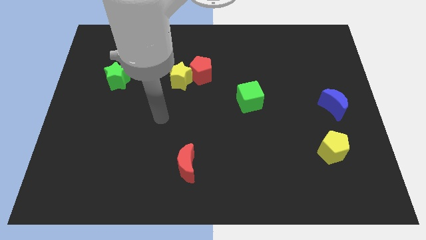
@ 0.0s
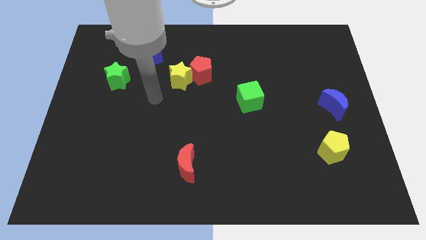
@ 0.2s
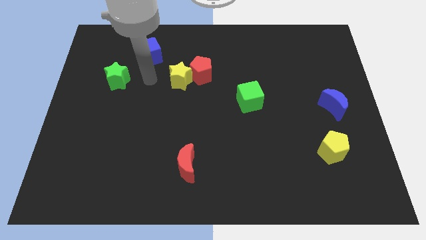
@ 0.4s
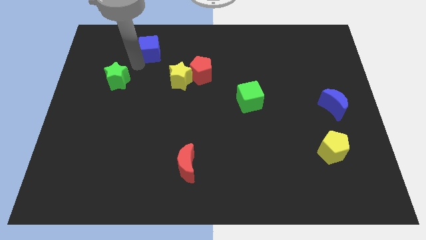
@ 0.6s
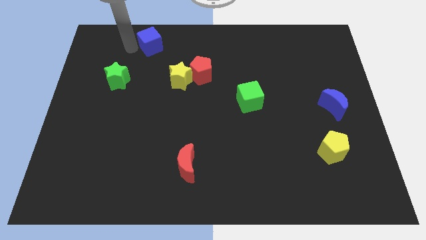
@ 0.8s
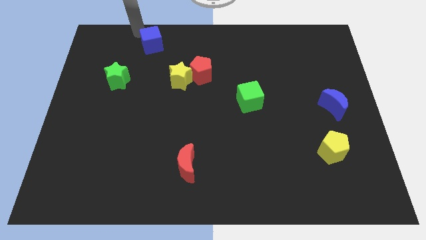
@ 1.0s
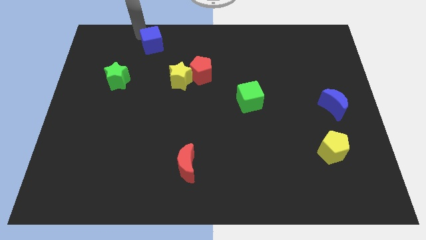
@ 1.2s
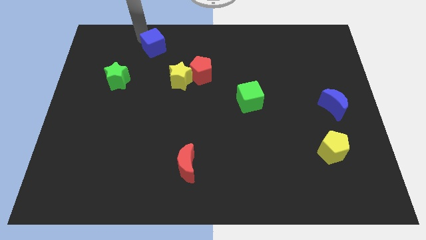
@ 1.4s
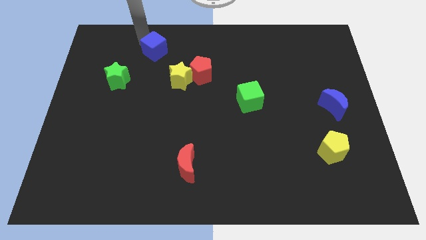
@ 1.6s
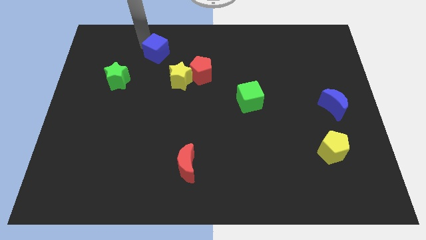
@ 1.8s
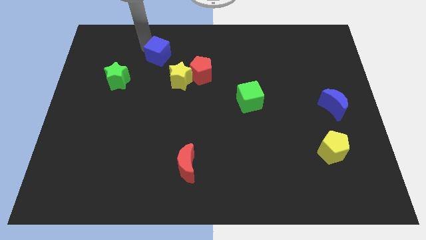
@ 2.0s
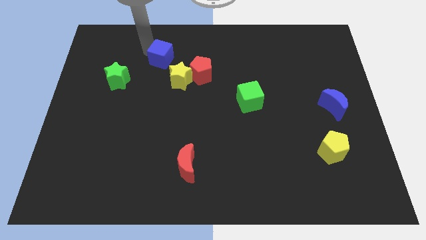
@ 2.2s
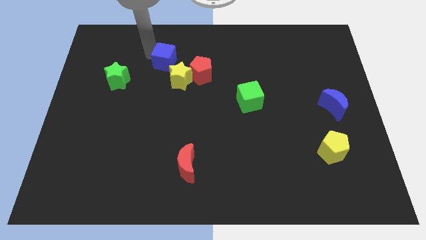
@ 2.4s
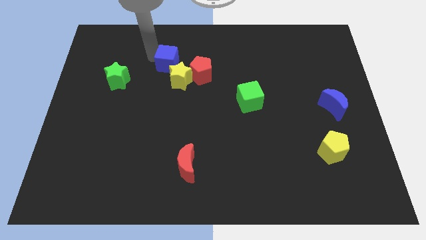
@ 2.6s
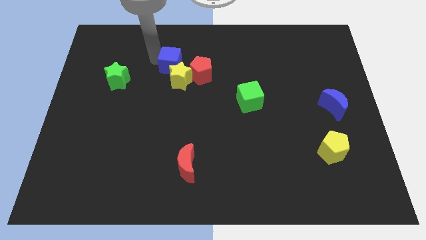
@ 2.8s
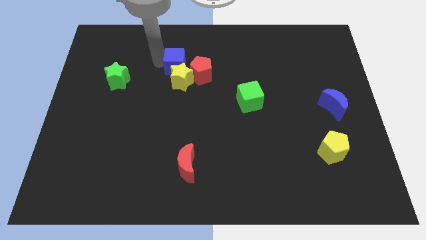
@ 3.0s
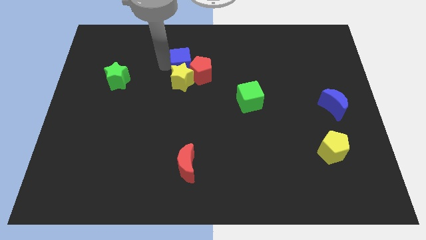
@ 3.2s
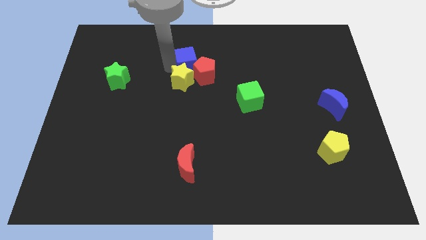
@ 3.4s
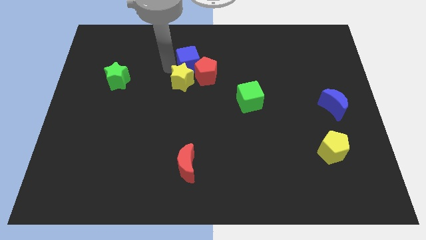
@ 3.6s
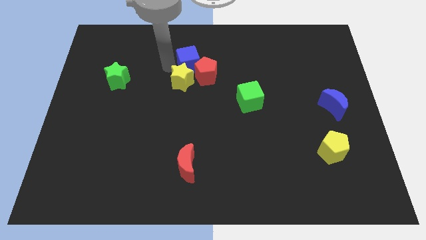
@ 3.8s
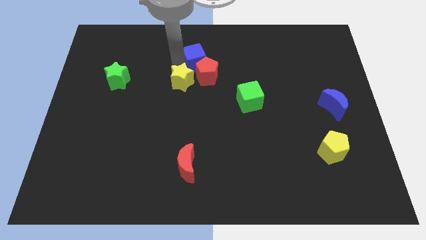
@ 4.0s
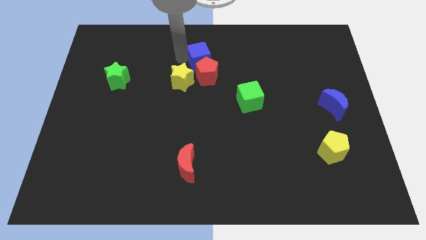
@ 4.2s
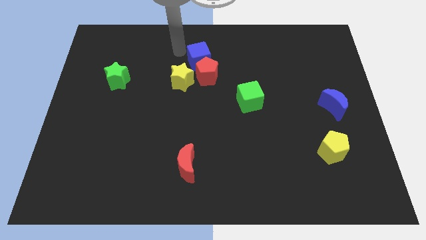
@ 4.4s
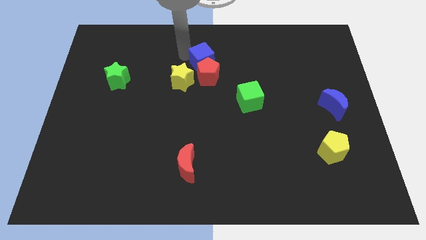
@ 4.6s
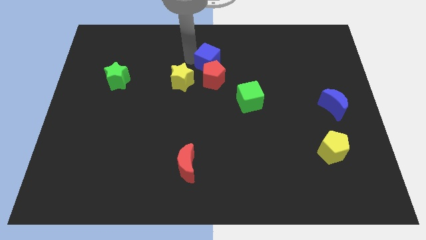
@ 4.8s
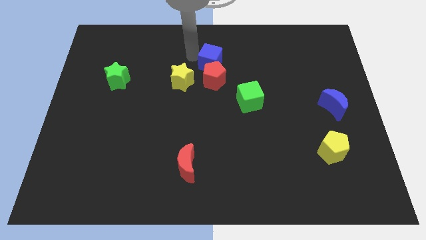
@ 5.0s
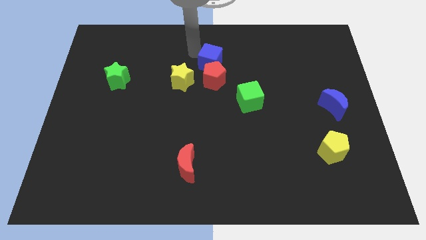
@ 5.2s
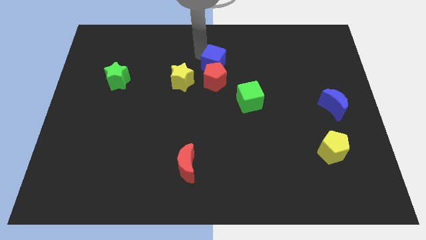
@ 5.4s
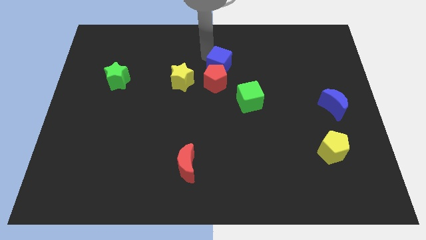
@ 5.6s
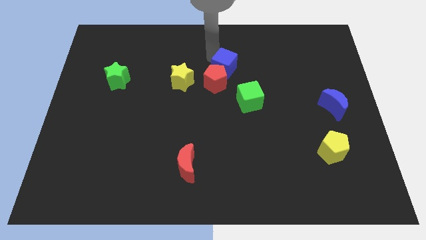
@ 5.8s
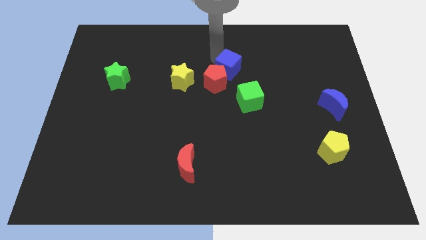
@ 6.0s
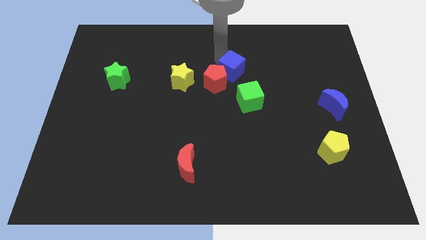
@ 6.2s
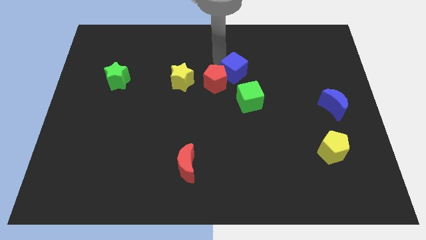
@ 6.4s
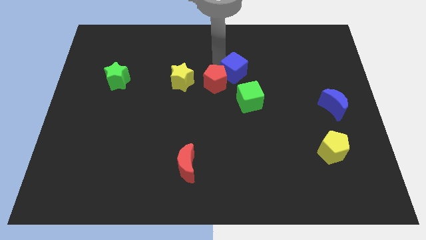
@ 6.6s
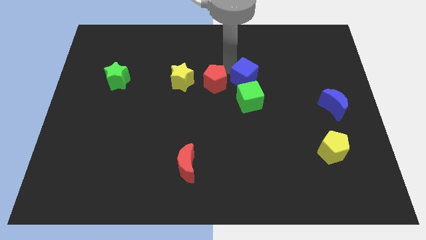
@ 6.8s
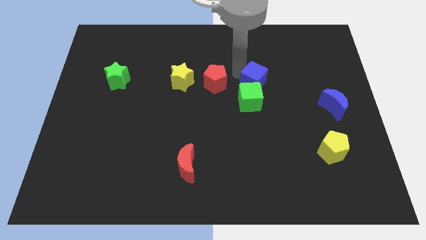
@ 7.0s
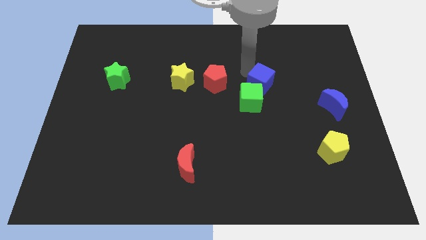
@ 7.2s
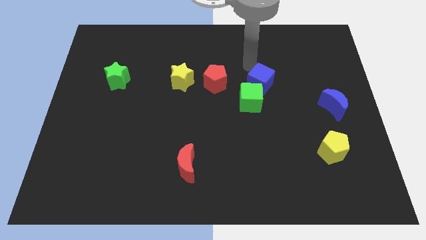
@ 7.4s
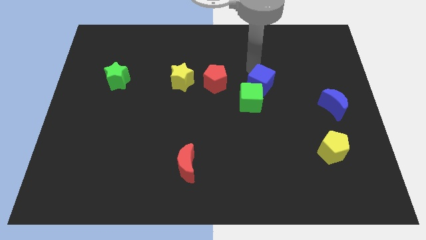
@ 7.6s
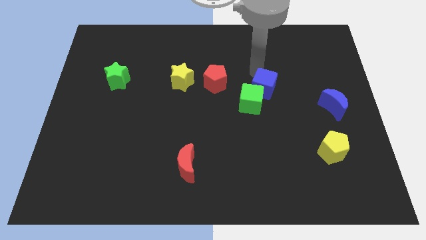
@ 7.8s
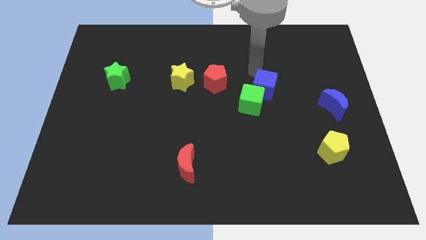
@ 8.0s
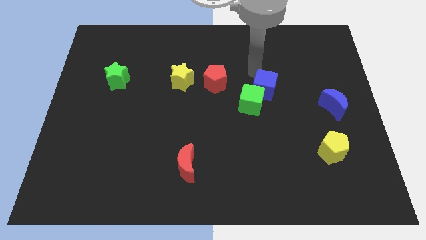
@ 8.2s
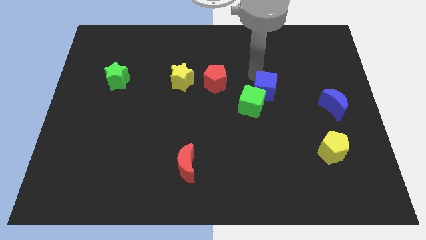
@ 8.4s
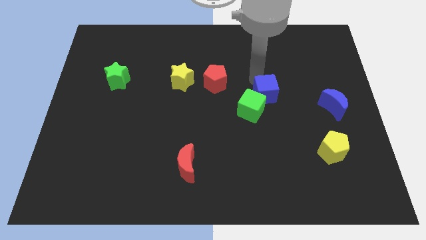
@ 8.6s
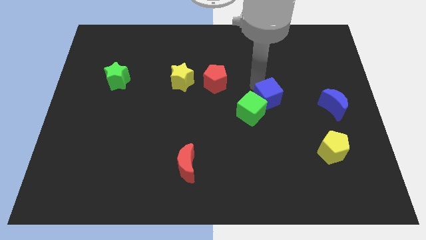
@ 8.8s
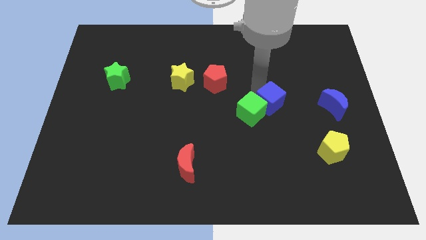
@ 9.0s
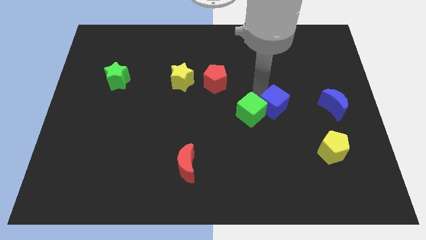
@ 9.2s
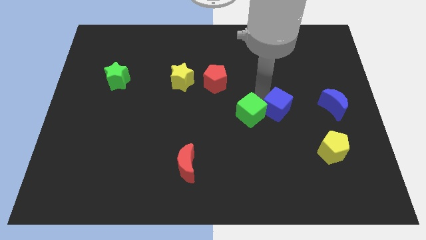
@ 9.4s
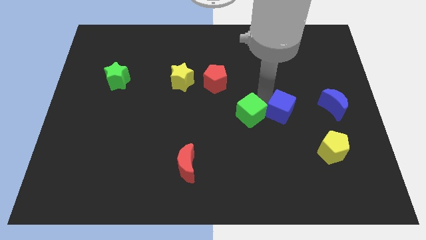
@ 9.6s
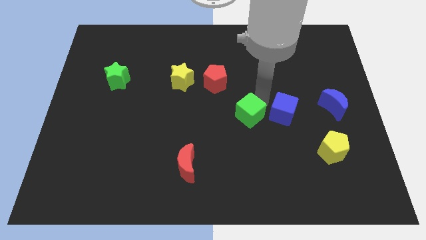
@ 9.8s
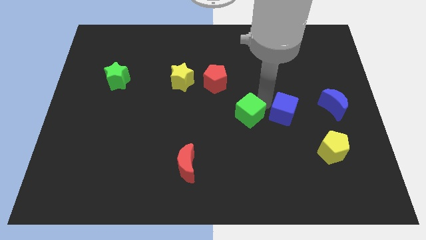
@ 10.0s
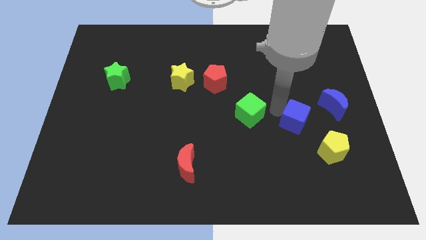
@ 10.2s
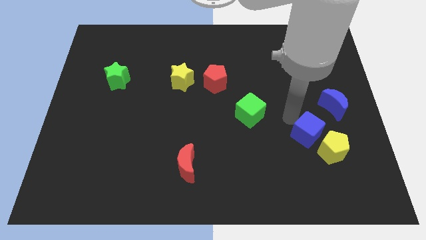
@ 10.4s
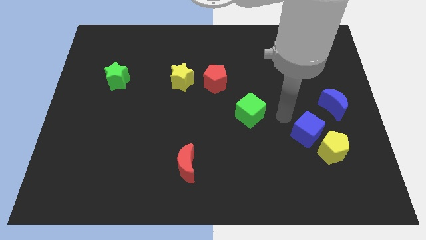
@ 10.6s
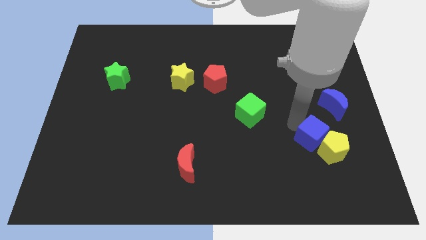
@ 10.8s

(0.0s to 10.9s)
put the blue cube close to the yellow pentagon

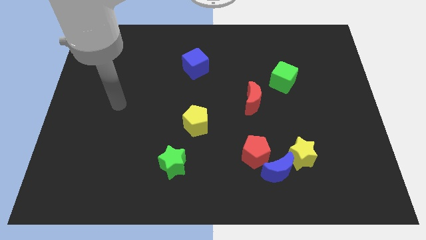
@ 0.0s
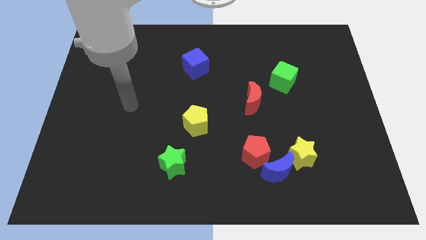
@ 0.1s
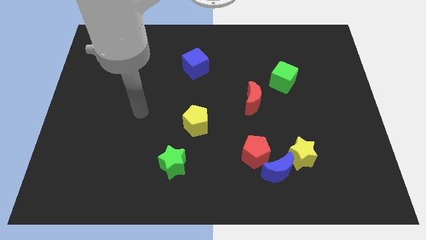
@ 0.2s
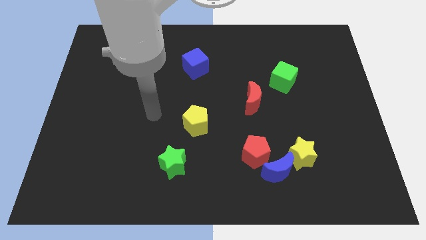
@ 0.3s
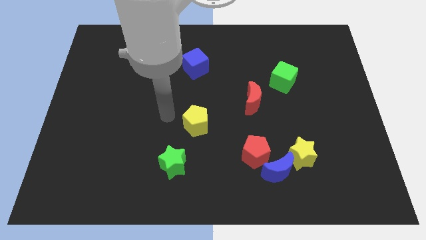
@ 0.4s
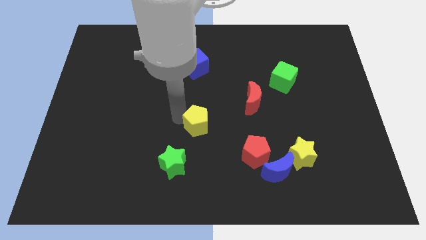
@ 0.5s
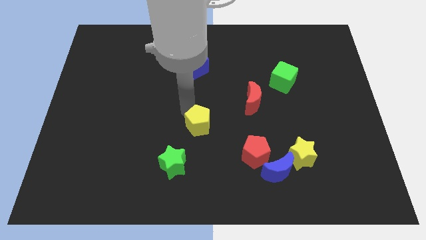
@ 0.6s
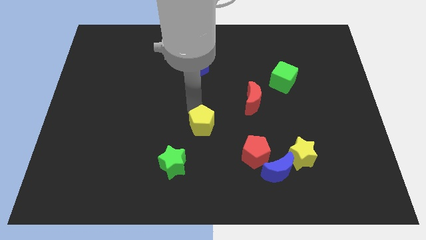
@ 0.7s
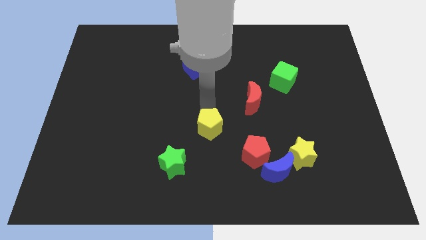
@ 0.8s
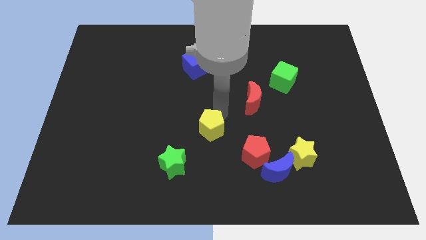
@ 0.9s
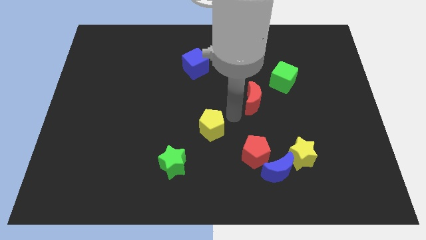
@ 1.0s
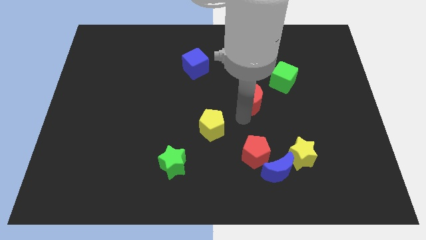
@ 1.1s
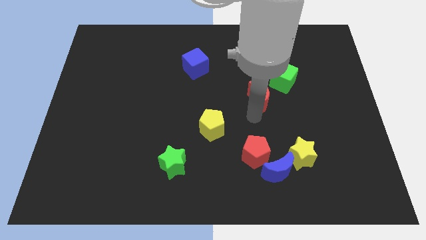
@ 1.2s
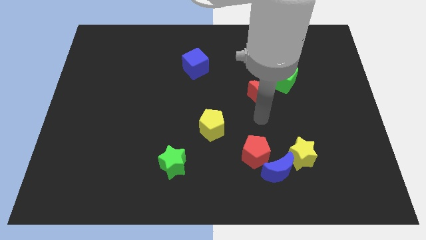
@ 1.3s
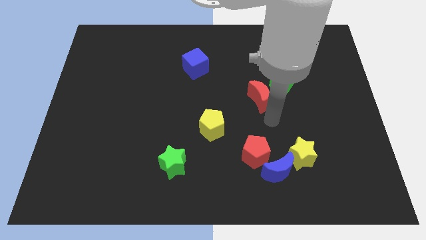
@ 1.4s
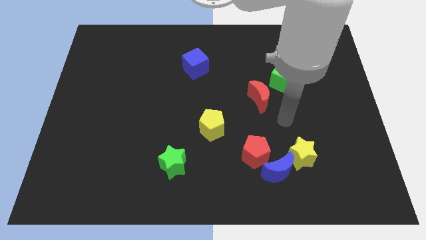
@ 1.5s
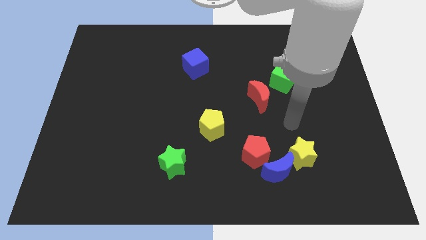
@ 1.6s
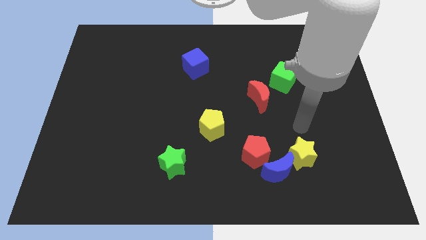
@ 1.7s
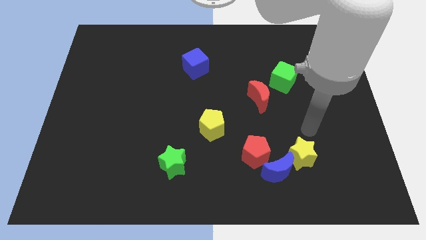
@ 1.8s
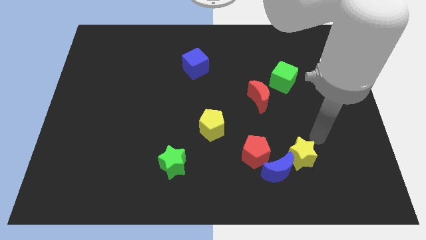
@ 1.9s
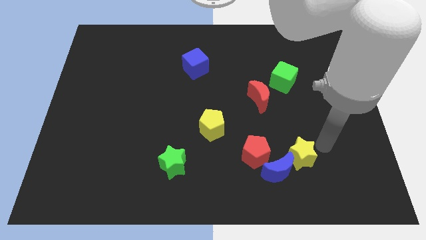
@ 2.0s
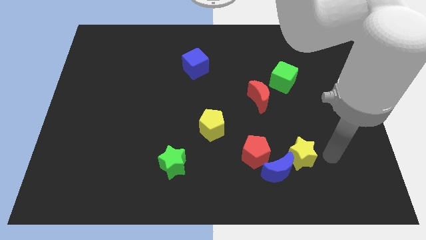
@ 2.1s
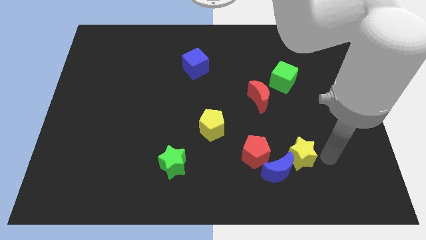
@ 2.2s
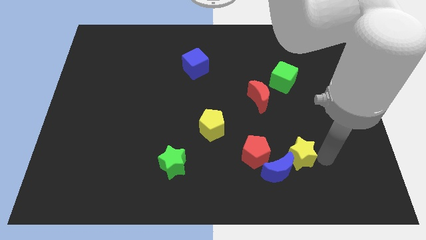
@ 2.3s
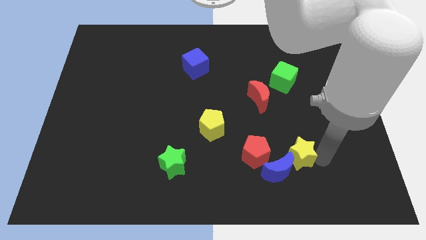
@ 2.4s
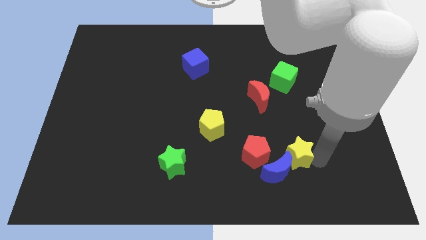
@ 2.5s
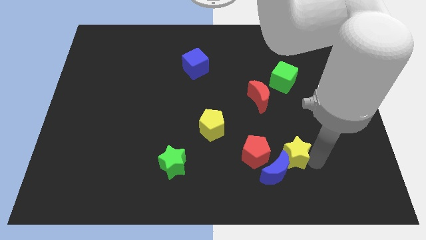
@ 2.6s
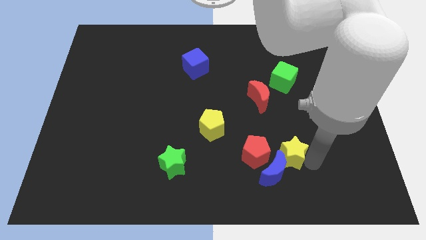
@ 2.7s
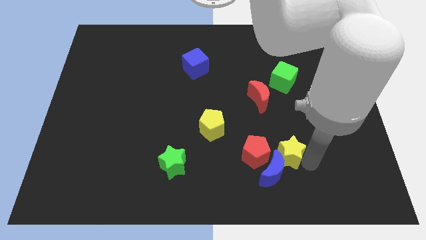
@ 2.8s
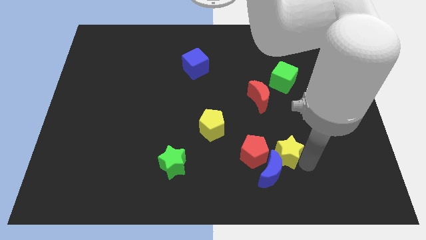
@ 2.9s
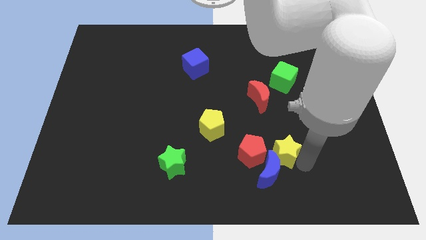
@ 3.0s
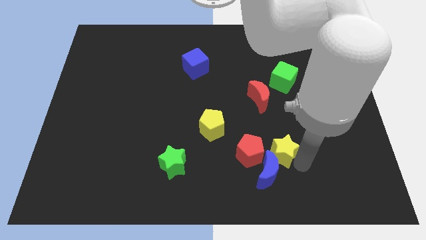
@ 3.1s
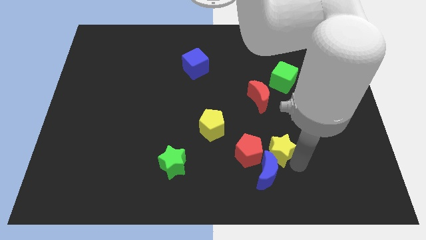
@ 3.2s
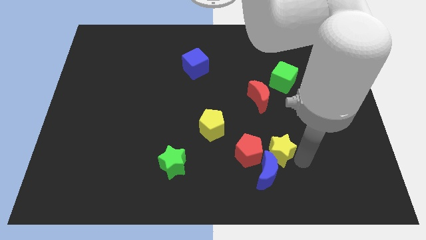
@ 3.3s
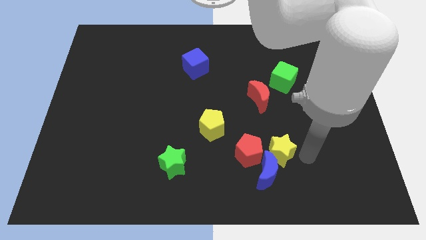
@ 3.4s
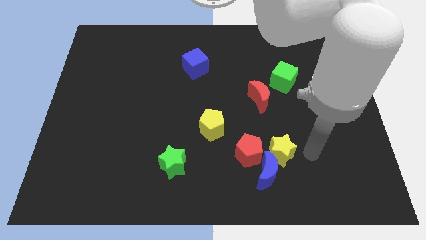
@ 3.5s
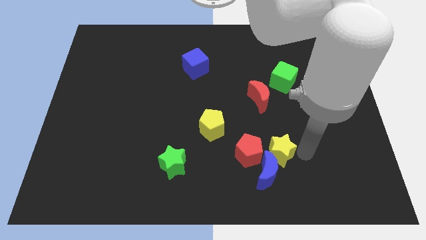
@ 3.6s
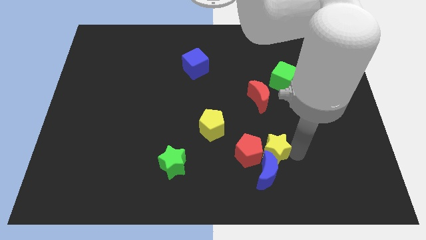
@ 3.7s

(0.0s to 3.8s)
move the yellow star close to the red pentagon
